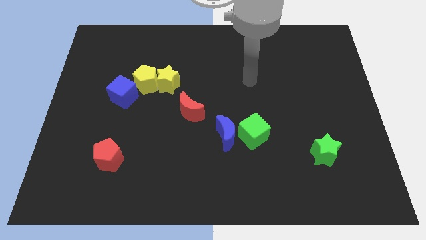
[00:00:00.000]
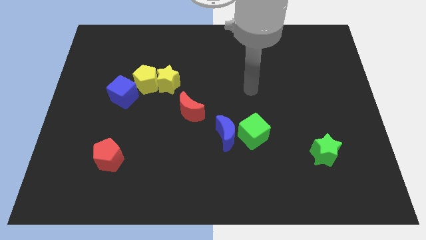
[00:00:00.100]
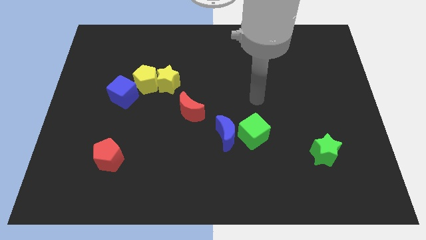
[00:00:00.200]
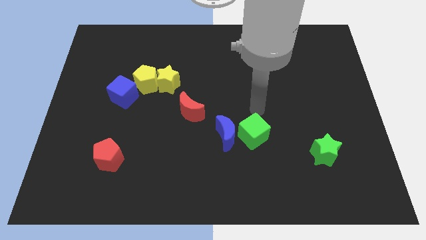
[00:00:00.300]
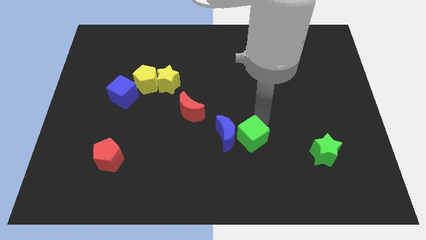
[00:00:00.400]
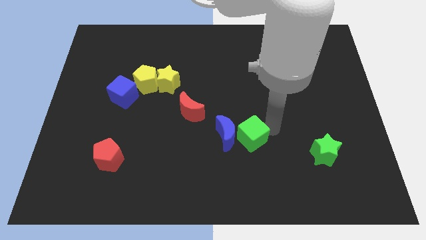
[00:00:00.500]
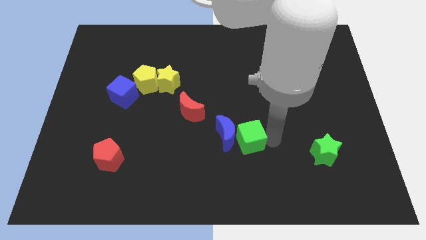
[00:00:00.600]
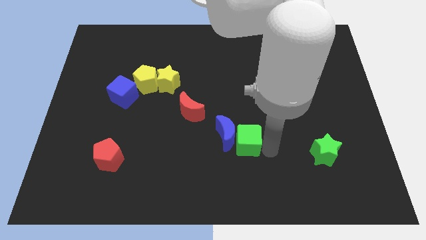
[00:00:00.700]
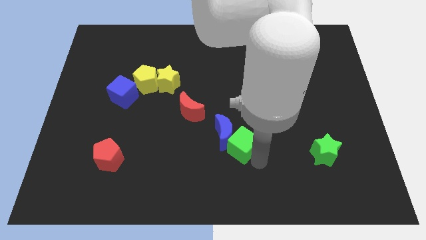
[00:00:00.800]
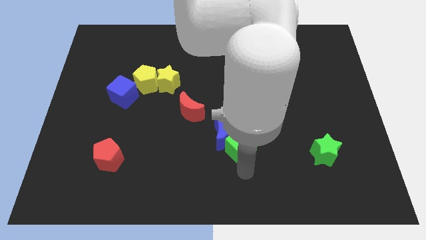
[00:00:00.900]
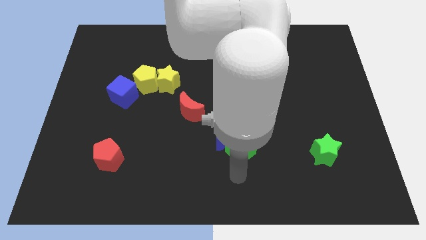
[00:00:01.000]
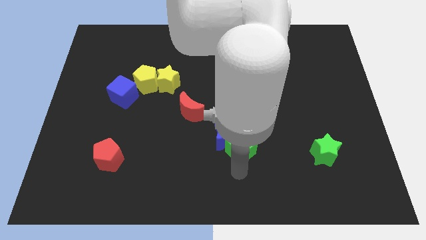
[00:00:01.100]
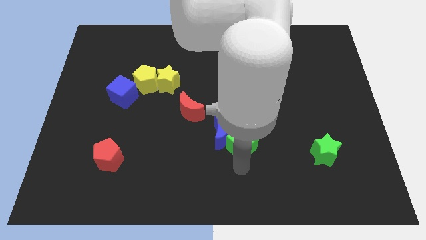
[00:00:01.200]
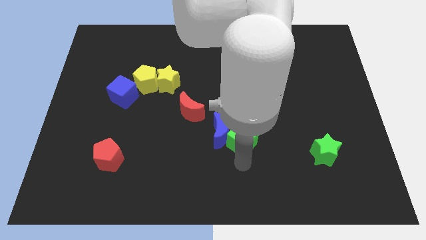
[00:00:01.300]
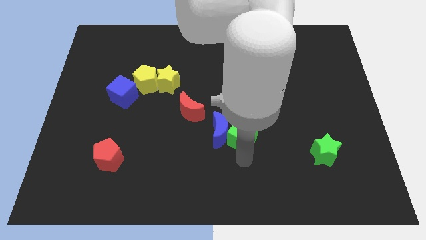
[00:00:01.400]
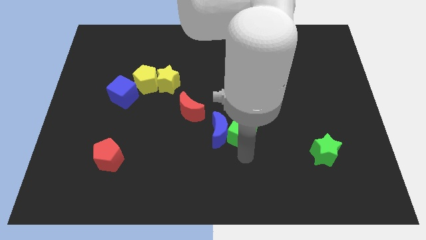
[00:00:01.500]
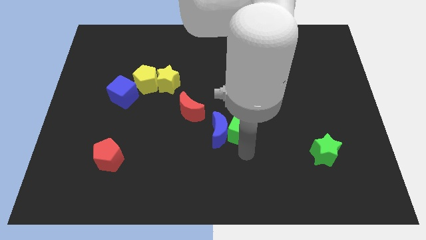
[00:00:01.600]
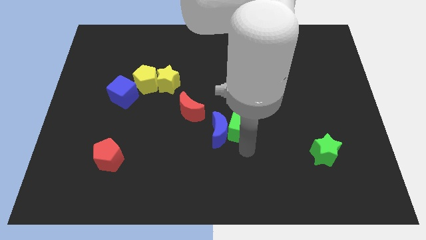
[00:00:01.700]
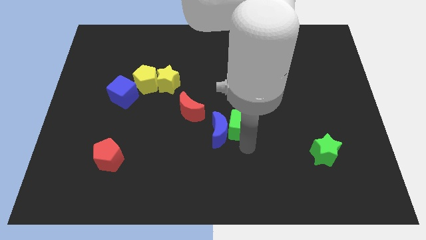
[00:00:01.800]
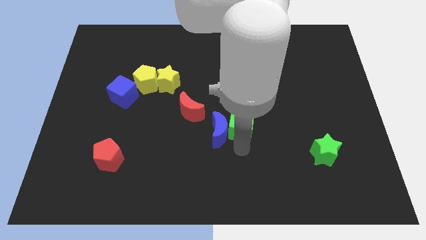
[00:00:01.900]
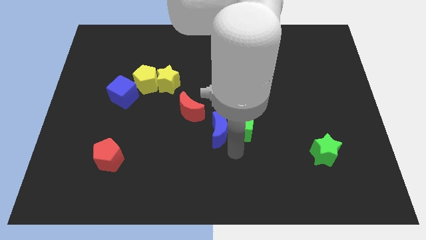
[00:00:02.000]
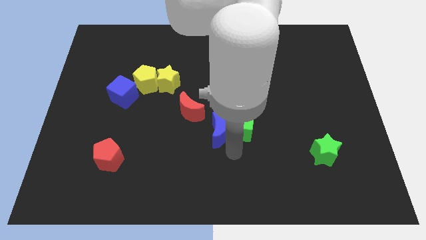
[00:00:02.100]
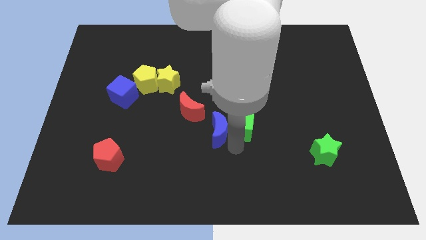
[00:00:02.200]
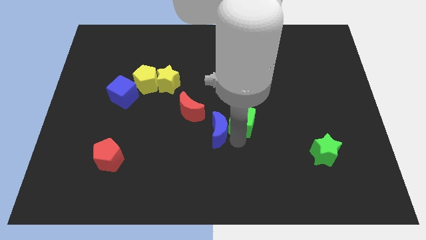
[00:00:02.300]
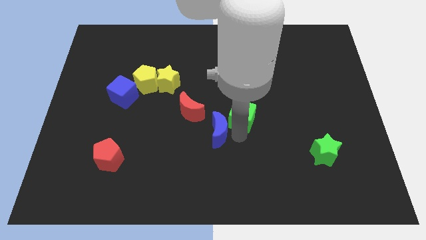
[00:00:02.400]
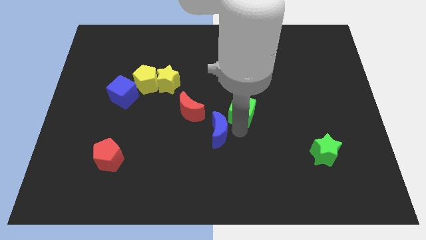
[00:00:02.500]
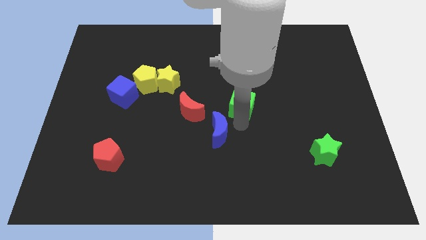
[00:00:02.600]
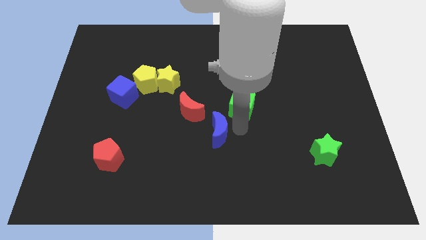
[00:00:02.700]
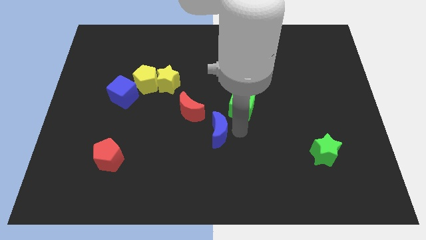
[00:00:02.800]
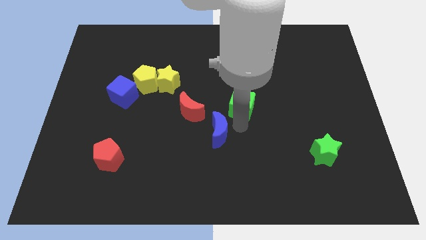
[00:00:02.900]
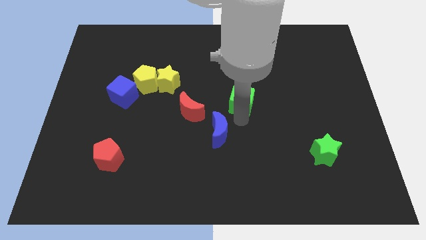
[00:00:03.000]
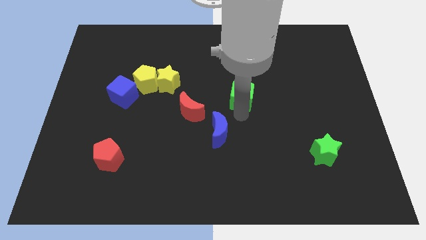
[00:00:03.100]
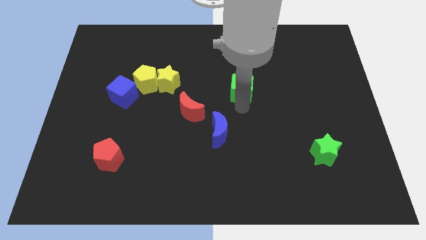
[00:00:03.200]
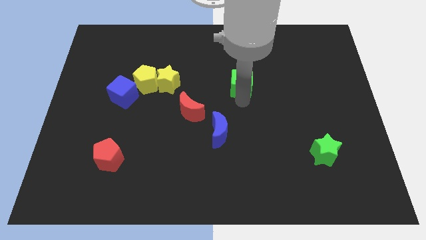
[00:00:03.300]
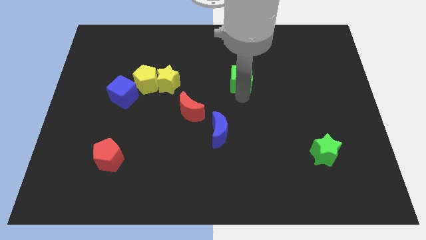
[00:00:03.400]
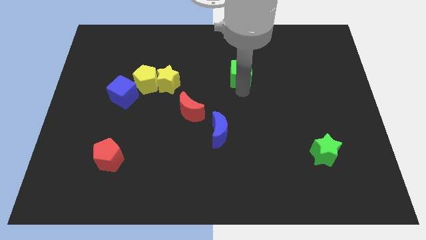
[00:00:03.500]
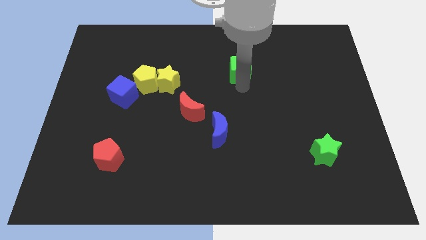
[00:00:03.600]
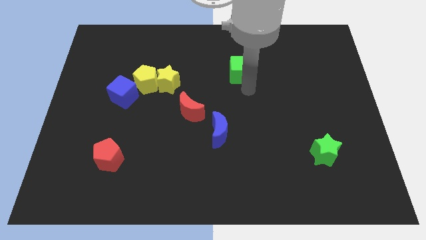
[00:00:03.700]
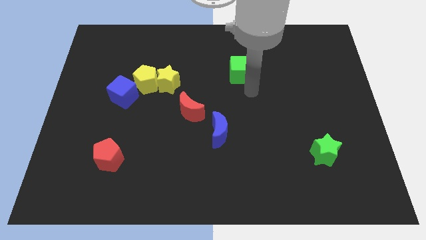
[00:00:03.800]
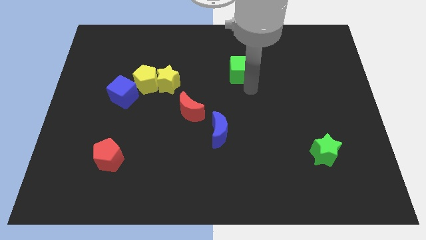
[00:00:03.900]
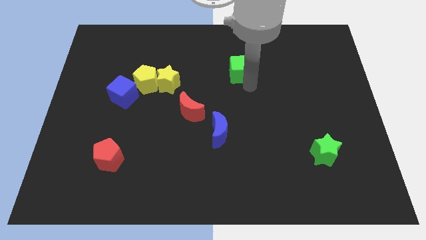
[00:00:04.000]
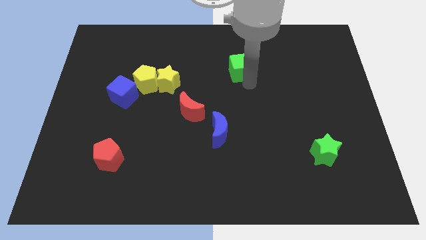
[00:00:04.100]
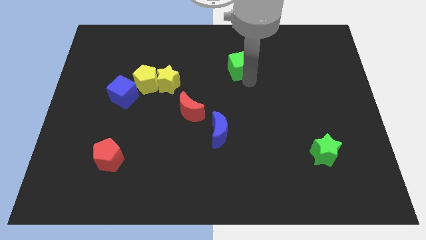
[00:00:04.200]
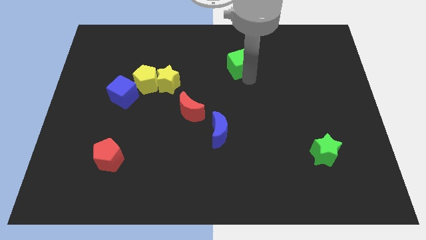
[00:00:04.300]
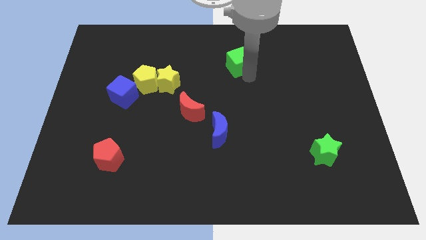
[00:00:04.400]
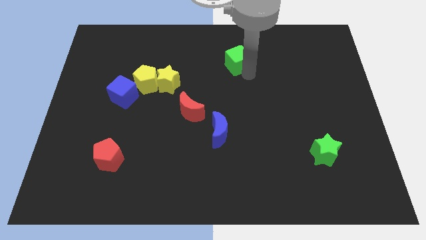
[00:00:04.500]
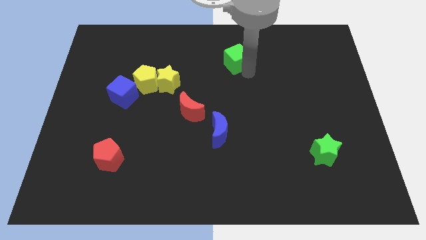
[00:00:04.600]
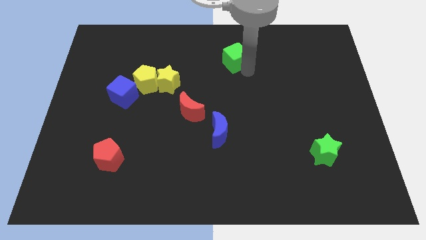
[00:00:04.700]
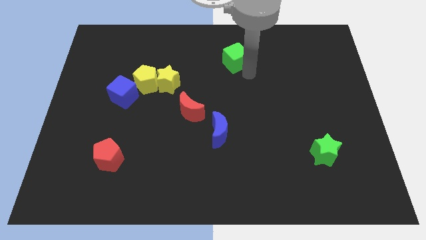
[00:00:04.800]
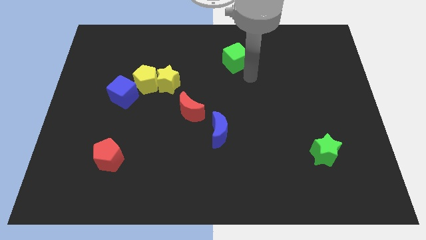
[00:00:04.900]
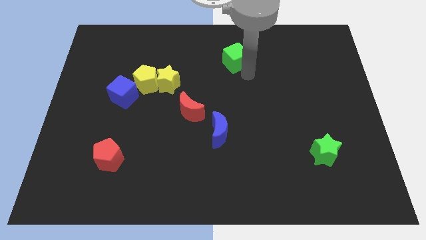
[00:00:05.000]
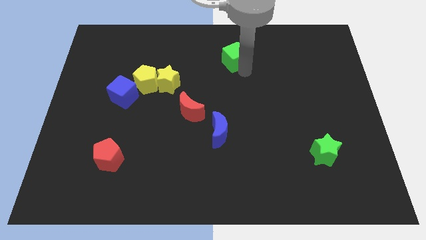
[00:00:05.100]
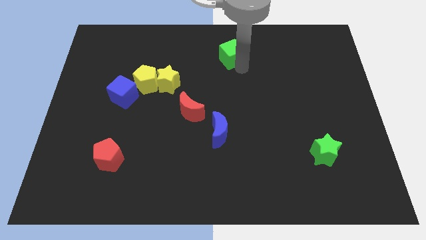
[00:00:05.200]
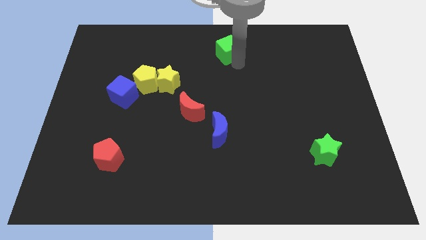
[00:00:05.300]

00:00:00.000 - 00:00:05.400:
push the green cube to the top side

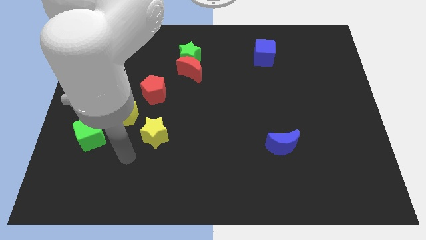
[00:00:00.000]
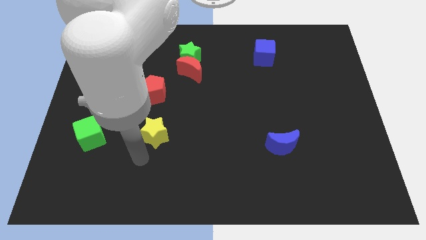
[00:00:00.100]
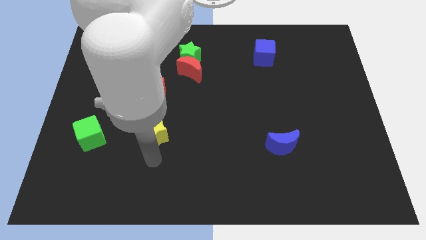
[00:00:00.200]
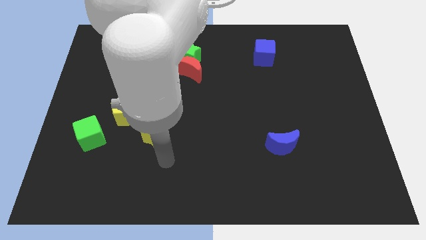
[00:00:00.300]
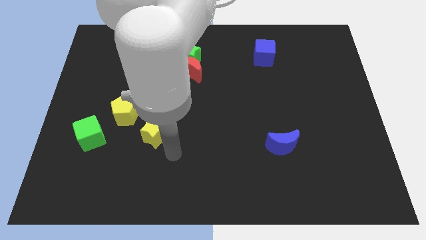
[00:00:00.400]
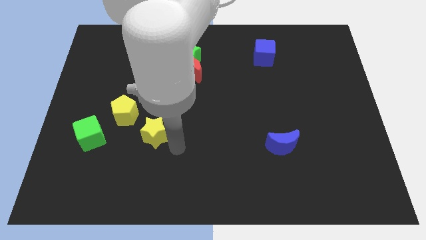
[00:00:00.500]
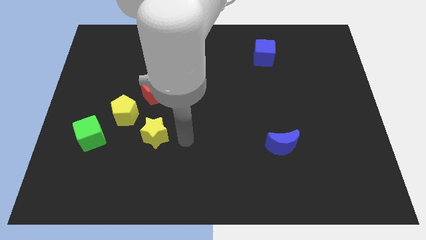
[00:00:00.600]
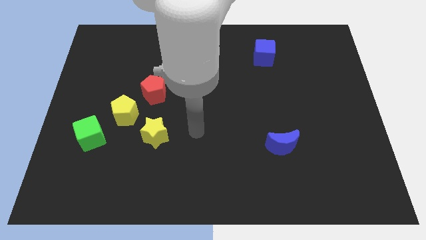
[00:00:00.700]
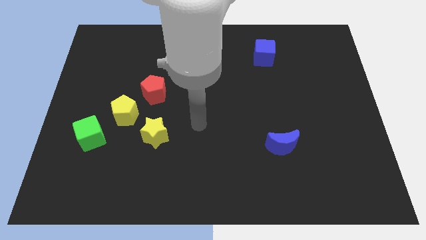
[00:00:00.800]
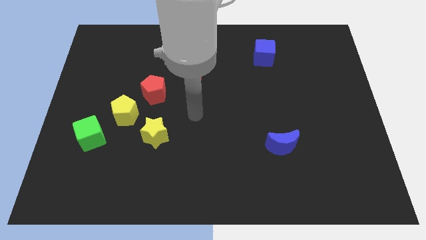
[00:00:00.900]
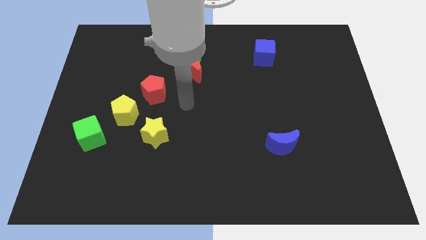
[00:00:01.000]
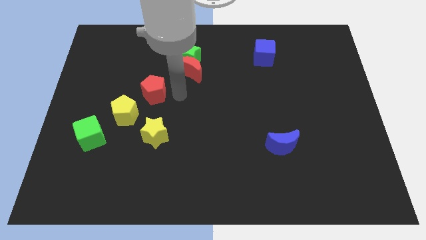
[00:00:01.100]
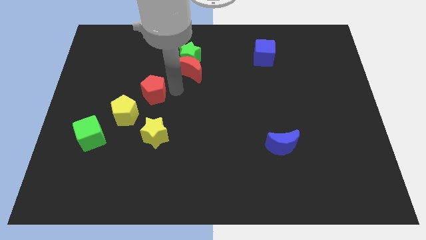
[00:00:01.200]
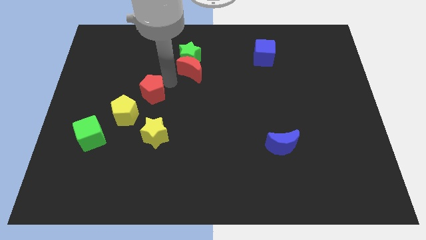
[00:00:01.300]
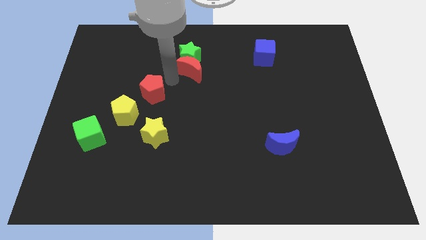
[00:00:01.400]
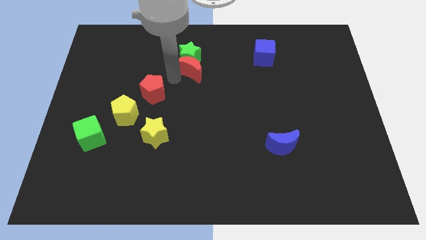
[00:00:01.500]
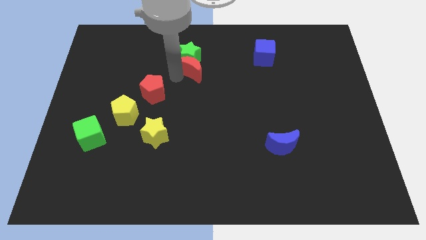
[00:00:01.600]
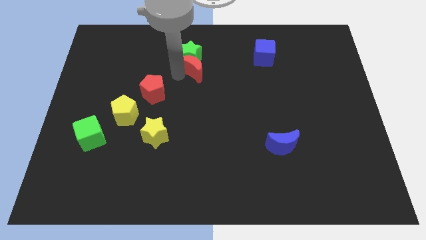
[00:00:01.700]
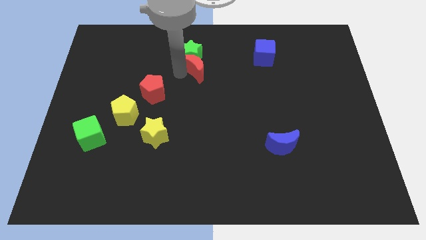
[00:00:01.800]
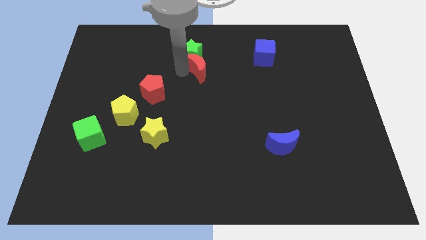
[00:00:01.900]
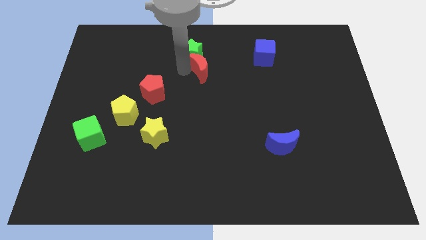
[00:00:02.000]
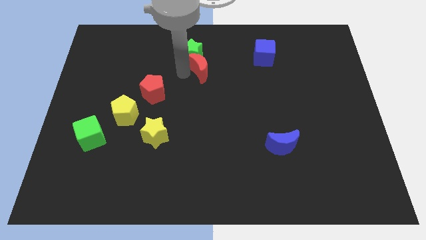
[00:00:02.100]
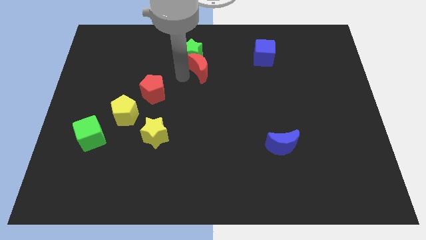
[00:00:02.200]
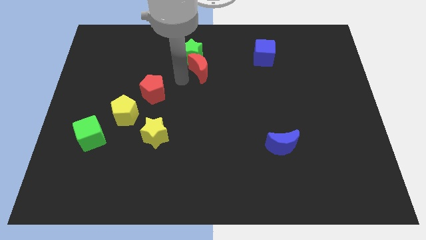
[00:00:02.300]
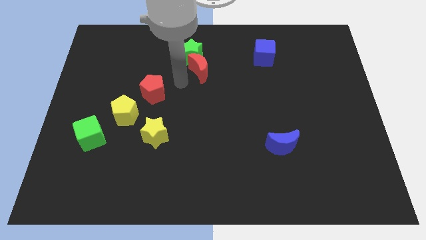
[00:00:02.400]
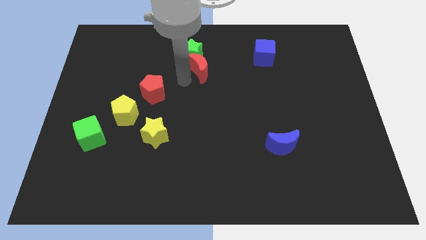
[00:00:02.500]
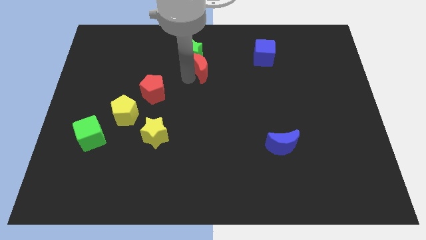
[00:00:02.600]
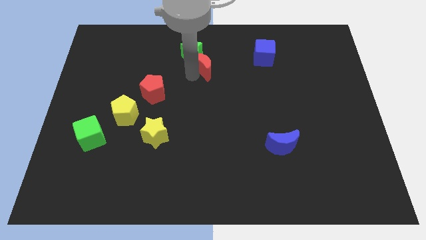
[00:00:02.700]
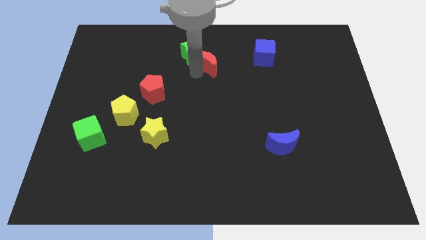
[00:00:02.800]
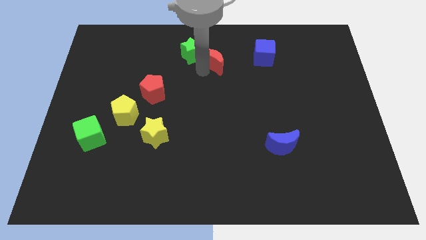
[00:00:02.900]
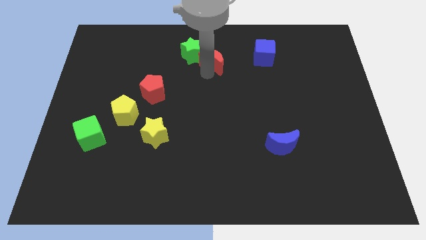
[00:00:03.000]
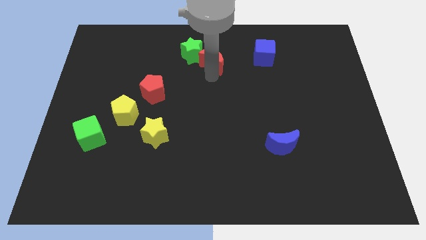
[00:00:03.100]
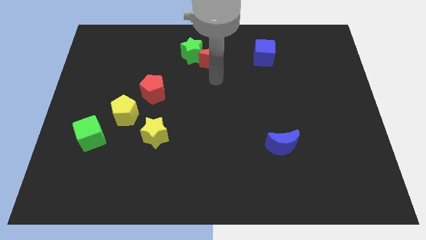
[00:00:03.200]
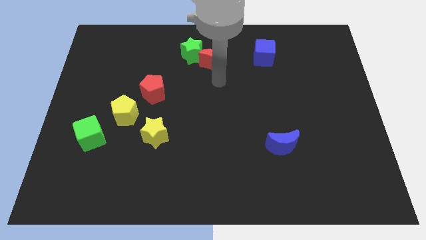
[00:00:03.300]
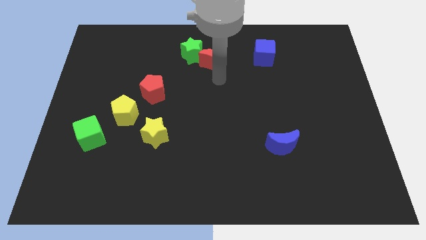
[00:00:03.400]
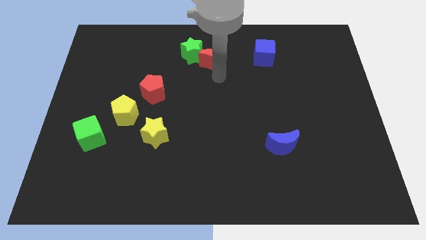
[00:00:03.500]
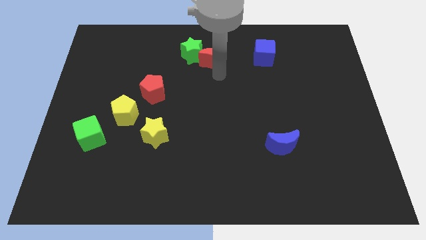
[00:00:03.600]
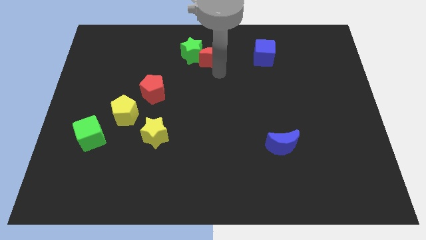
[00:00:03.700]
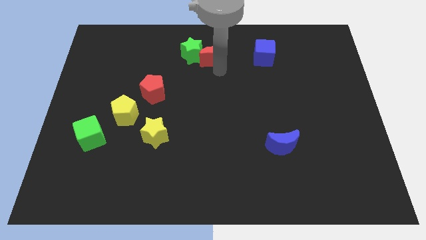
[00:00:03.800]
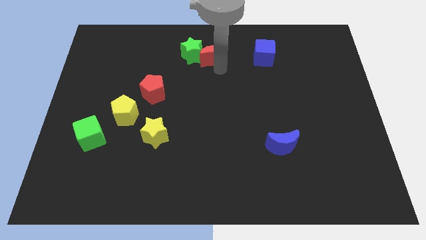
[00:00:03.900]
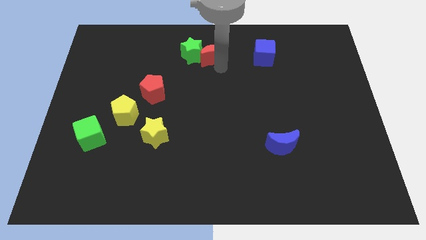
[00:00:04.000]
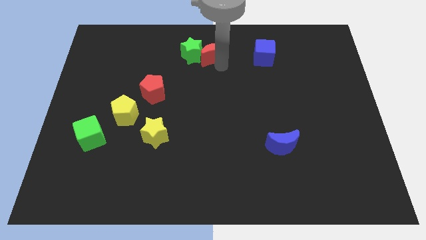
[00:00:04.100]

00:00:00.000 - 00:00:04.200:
slide the red moon to the towards your base
